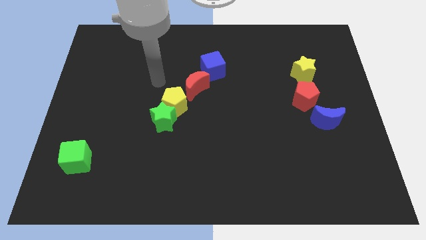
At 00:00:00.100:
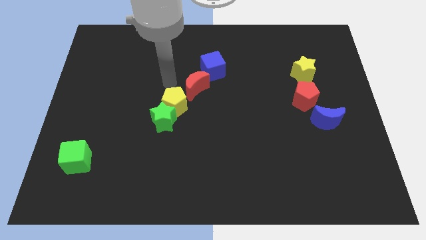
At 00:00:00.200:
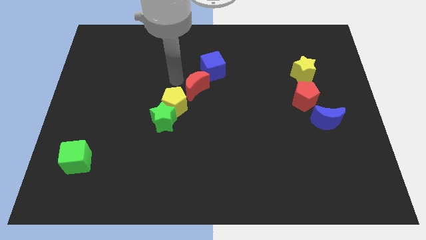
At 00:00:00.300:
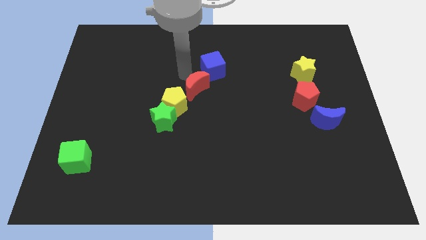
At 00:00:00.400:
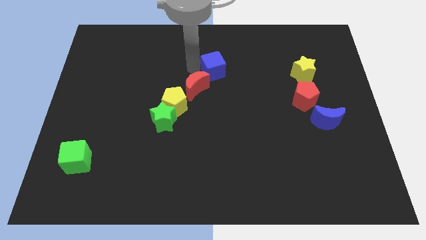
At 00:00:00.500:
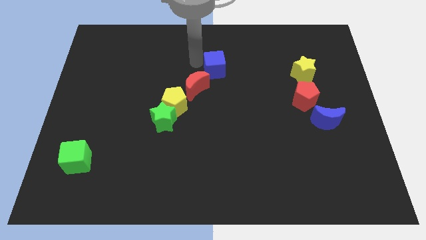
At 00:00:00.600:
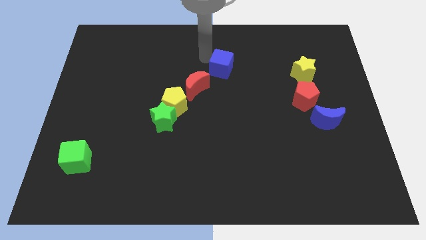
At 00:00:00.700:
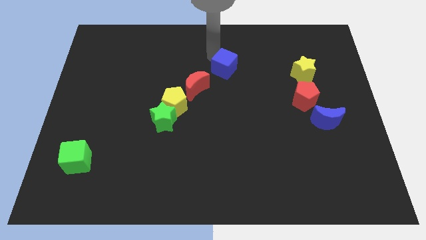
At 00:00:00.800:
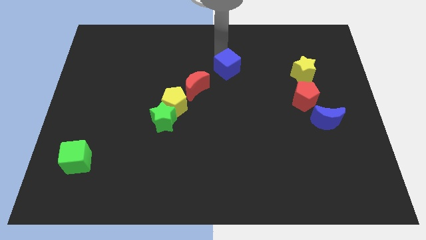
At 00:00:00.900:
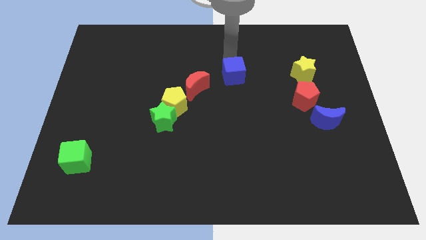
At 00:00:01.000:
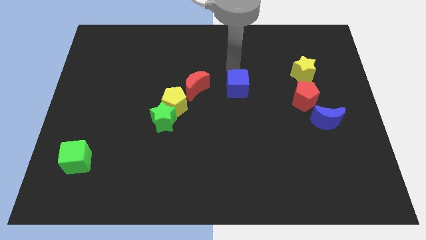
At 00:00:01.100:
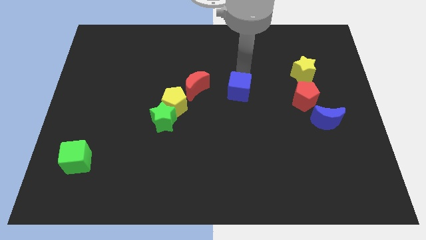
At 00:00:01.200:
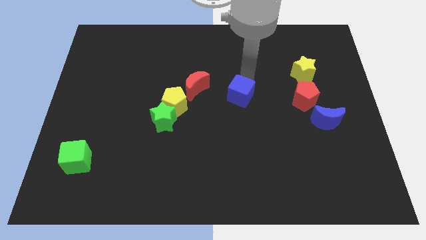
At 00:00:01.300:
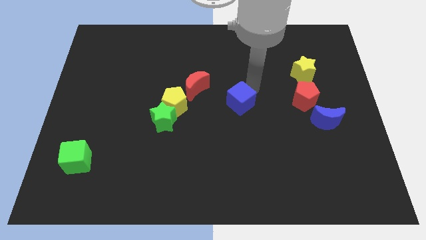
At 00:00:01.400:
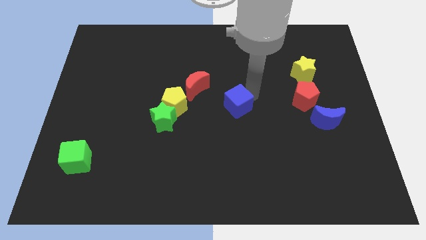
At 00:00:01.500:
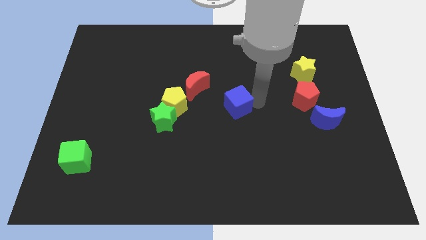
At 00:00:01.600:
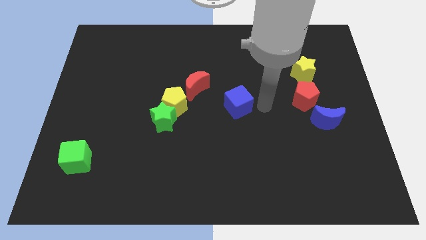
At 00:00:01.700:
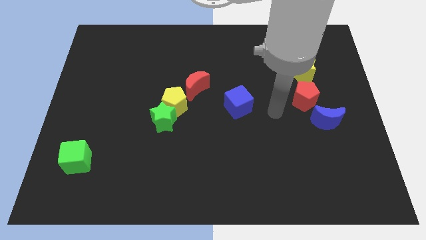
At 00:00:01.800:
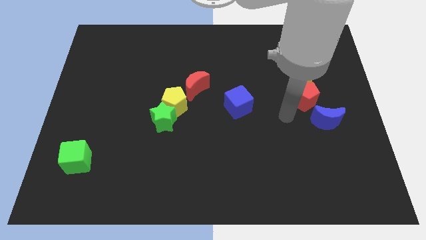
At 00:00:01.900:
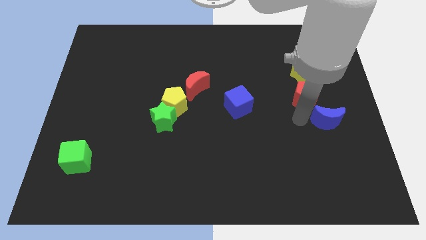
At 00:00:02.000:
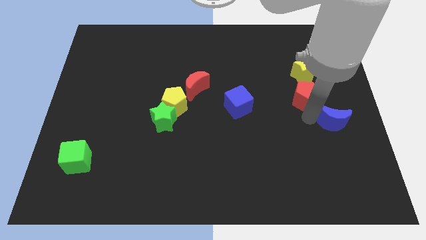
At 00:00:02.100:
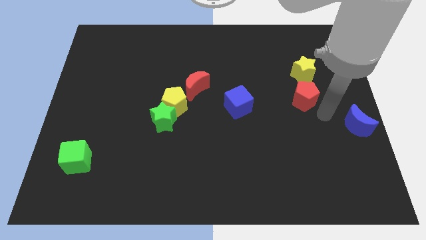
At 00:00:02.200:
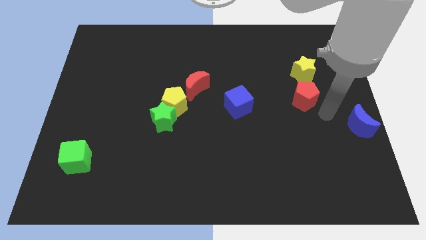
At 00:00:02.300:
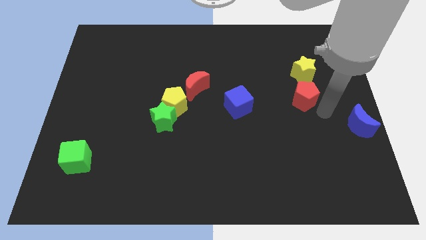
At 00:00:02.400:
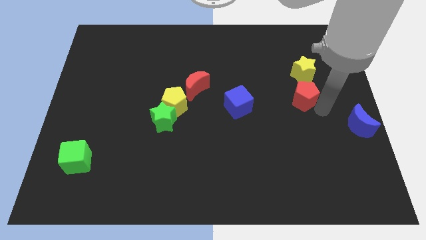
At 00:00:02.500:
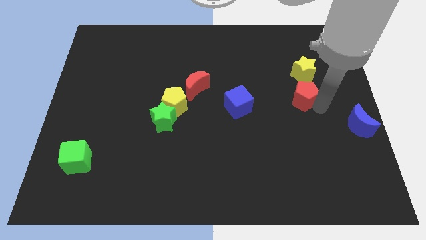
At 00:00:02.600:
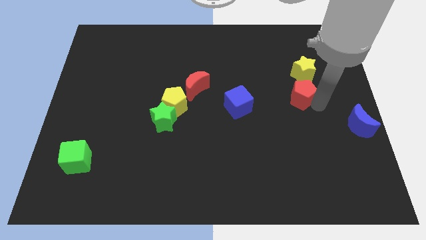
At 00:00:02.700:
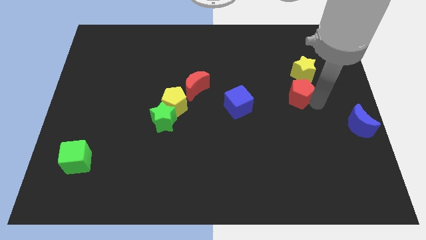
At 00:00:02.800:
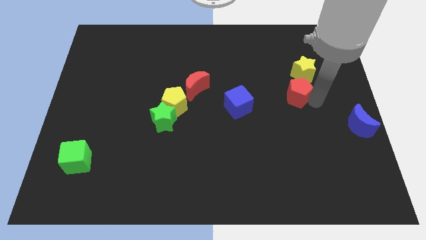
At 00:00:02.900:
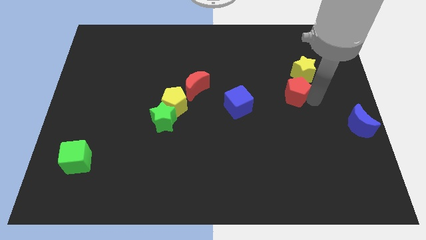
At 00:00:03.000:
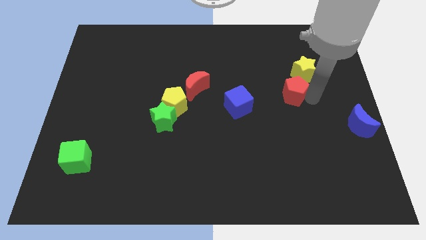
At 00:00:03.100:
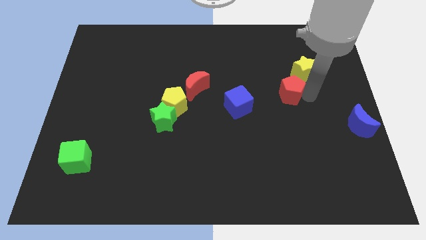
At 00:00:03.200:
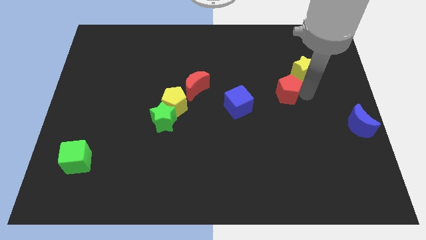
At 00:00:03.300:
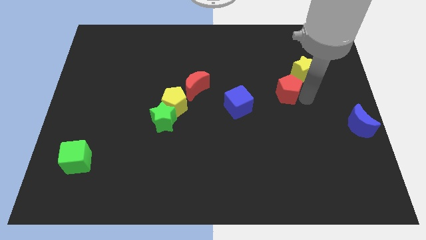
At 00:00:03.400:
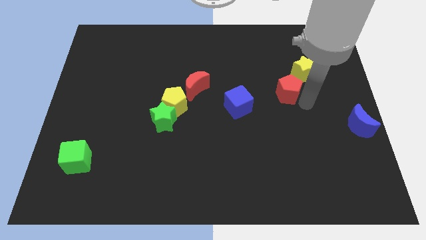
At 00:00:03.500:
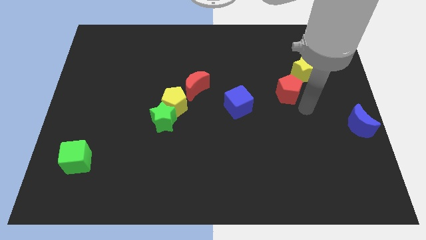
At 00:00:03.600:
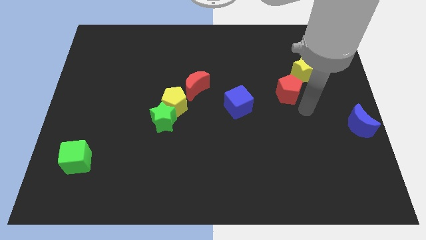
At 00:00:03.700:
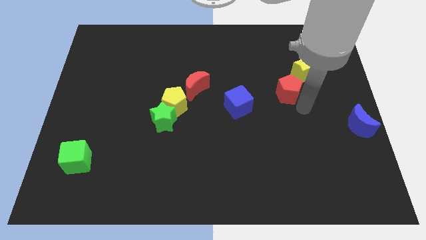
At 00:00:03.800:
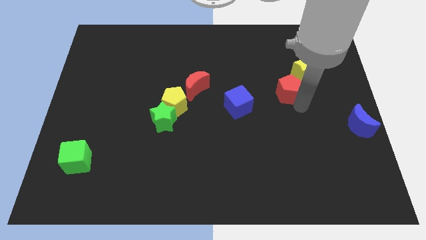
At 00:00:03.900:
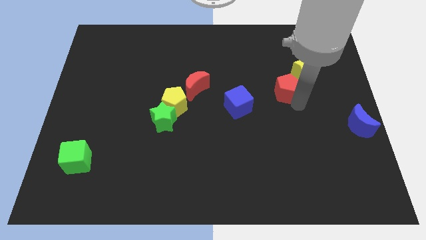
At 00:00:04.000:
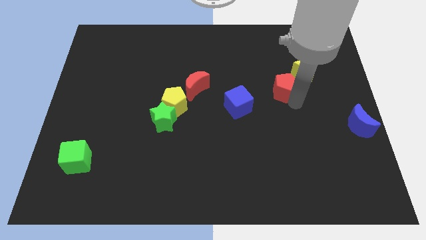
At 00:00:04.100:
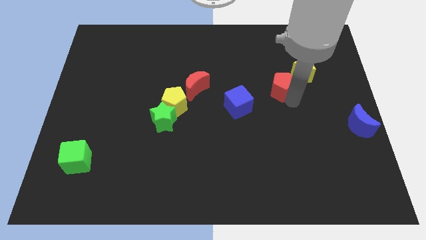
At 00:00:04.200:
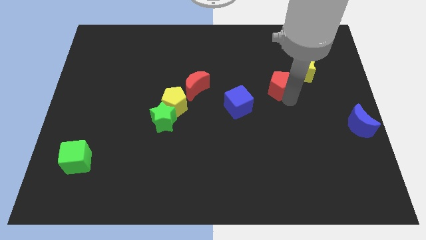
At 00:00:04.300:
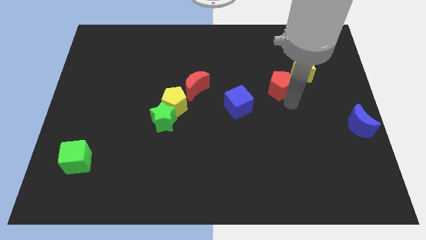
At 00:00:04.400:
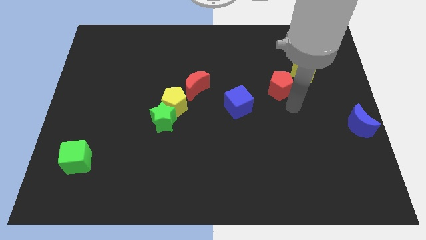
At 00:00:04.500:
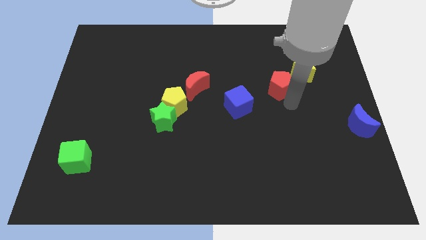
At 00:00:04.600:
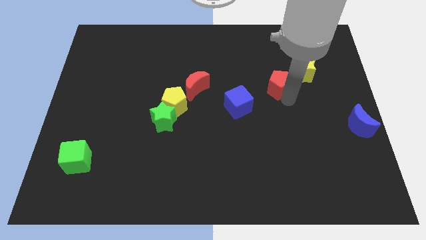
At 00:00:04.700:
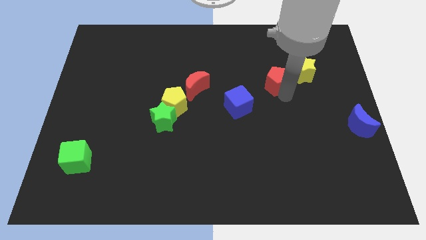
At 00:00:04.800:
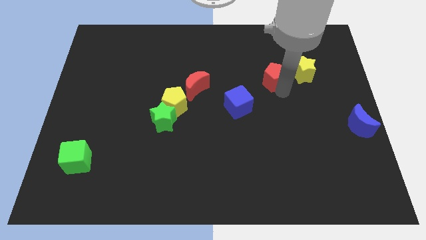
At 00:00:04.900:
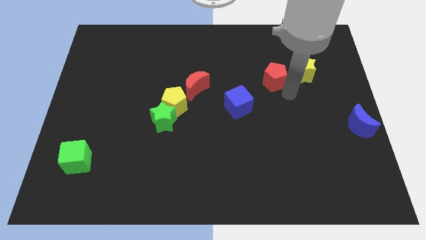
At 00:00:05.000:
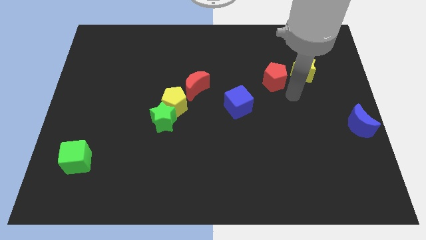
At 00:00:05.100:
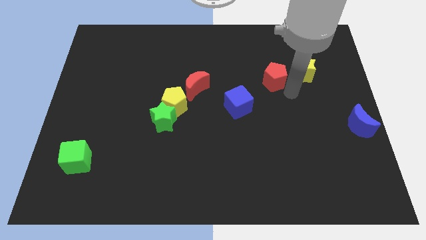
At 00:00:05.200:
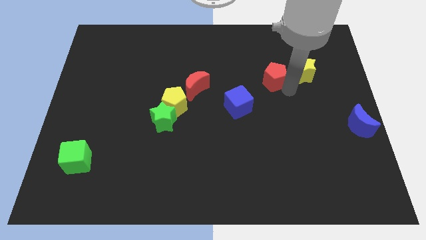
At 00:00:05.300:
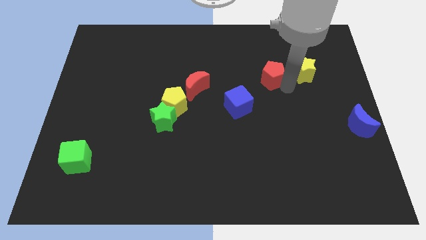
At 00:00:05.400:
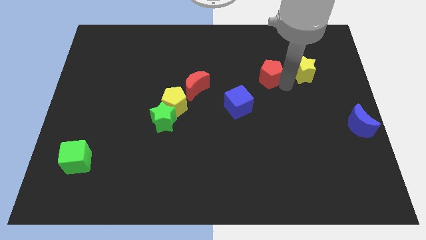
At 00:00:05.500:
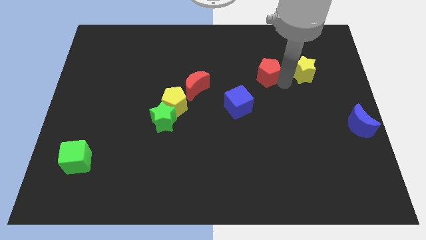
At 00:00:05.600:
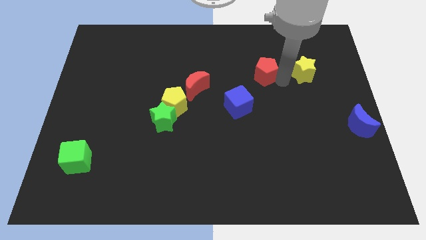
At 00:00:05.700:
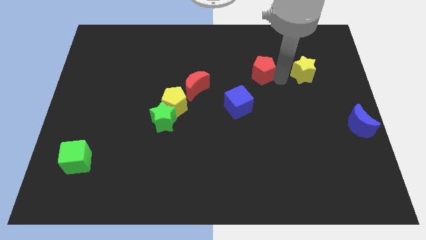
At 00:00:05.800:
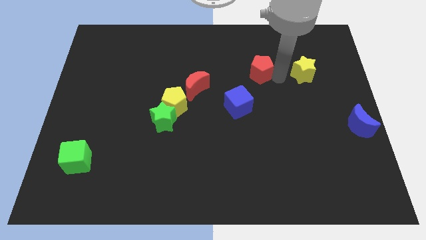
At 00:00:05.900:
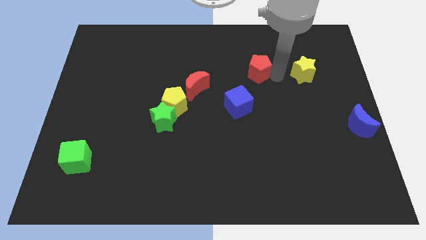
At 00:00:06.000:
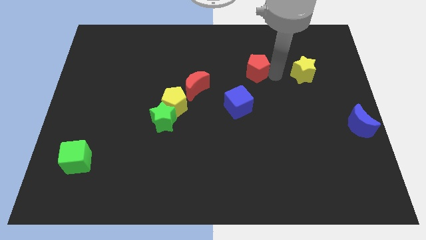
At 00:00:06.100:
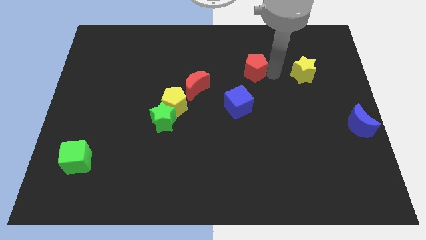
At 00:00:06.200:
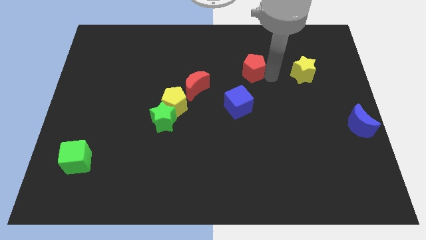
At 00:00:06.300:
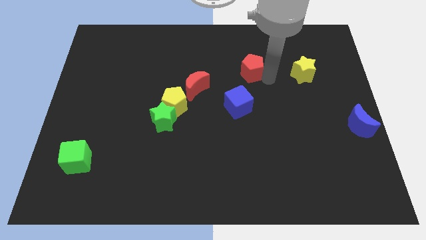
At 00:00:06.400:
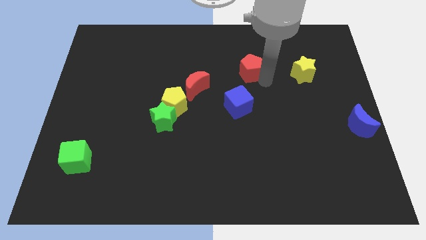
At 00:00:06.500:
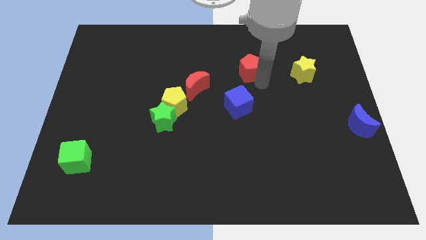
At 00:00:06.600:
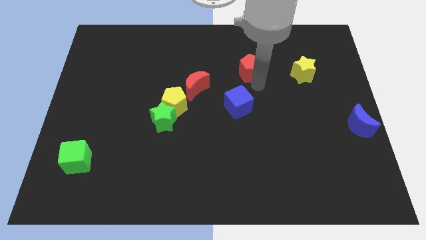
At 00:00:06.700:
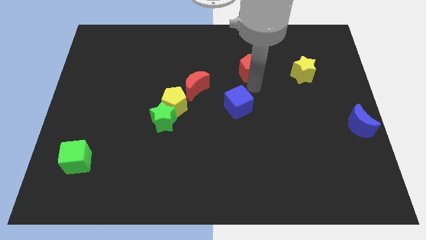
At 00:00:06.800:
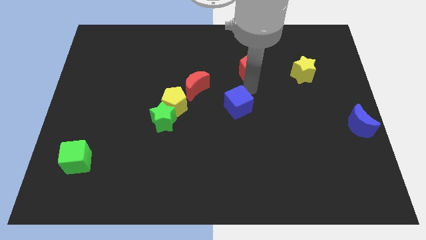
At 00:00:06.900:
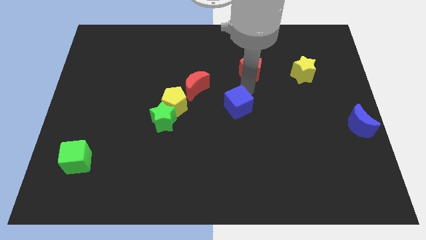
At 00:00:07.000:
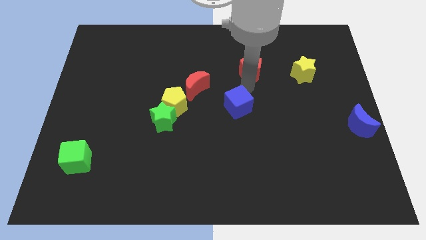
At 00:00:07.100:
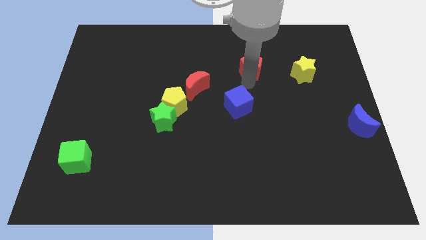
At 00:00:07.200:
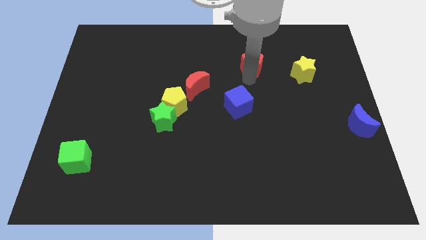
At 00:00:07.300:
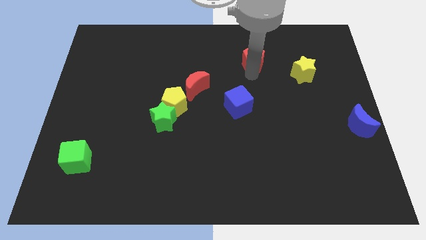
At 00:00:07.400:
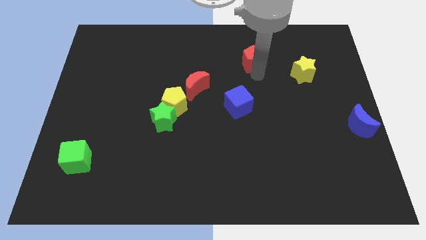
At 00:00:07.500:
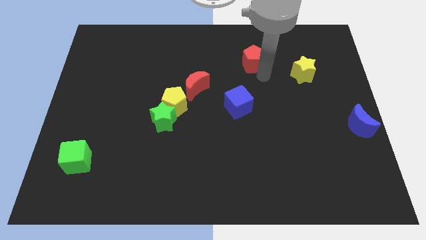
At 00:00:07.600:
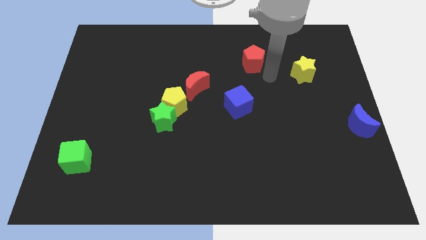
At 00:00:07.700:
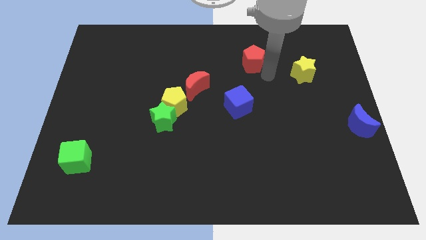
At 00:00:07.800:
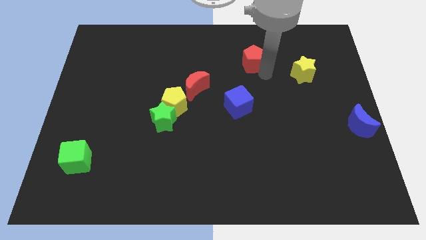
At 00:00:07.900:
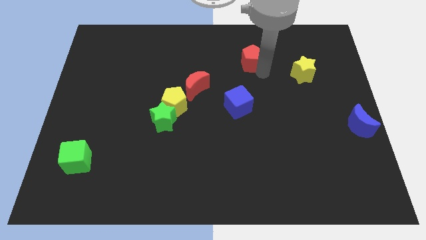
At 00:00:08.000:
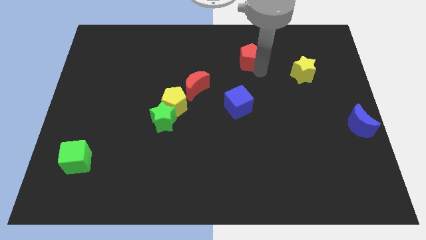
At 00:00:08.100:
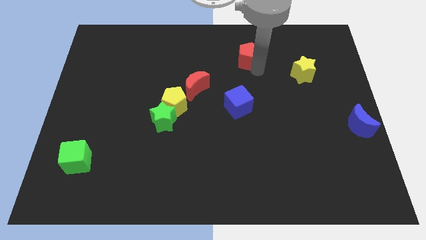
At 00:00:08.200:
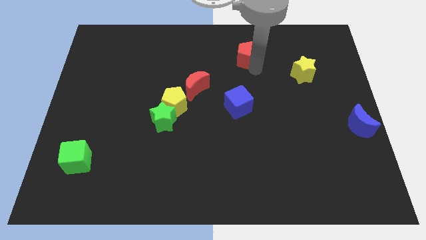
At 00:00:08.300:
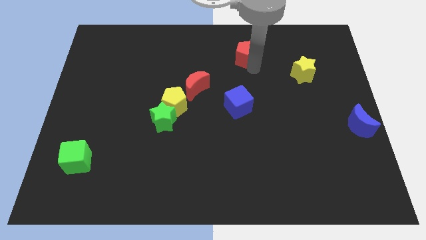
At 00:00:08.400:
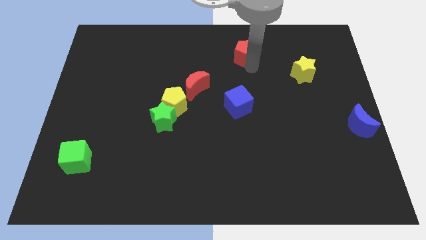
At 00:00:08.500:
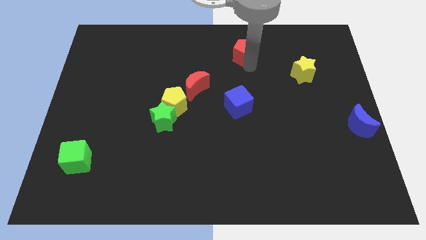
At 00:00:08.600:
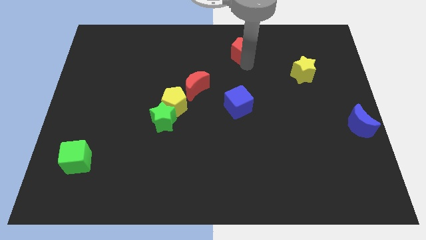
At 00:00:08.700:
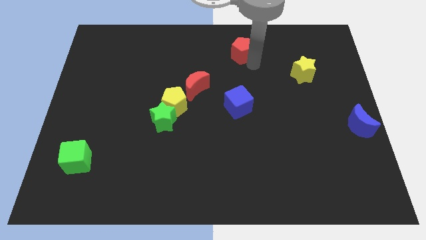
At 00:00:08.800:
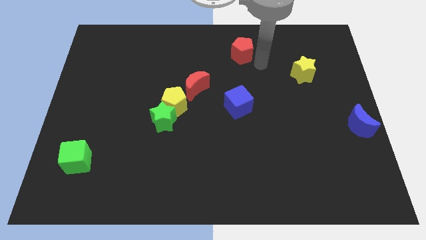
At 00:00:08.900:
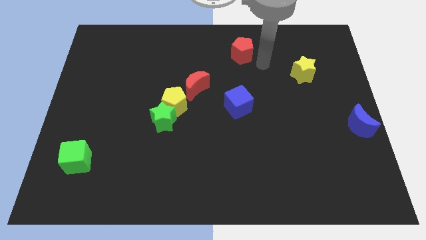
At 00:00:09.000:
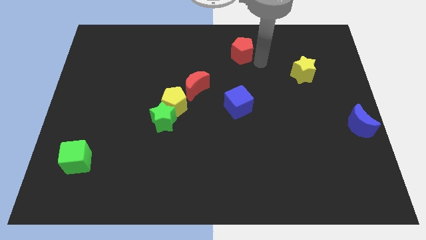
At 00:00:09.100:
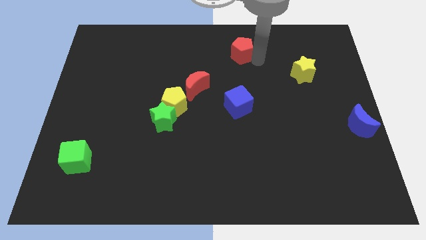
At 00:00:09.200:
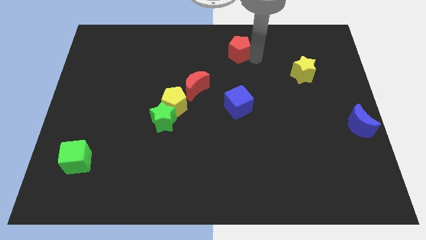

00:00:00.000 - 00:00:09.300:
push the red pentagon to the top
